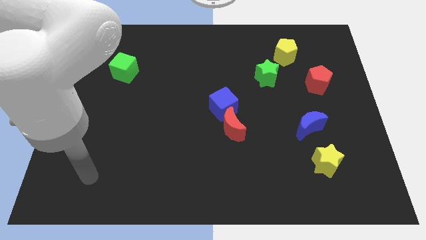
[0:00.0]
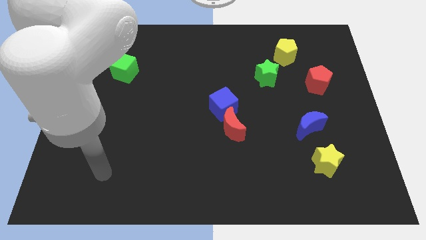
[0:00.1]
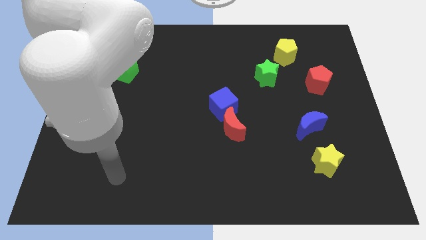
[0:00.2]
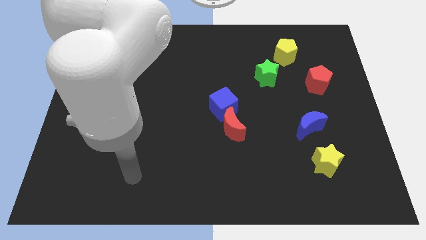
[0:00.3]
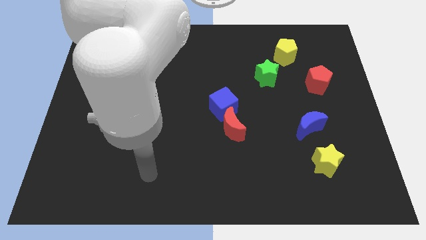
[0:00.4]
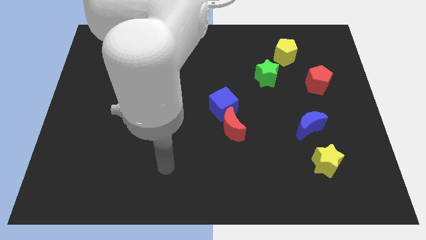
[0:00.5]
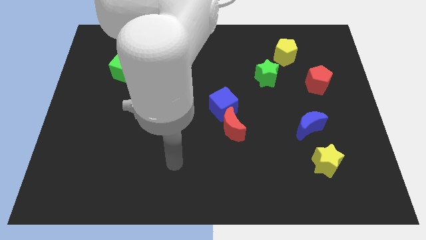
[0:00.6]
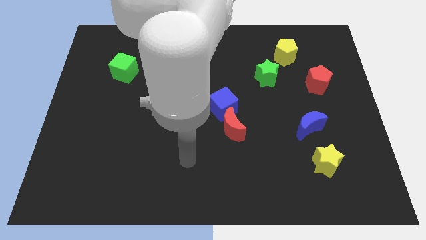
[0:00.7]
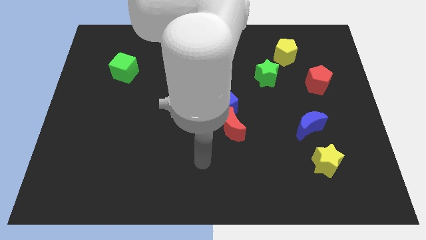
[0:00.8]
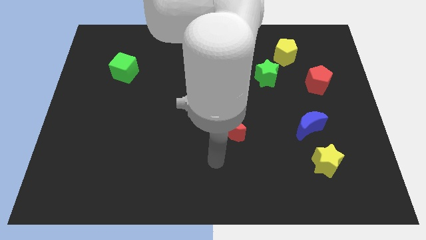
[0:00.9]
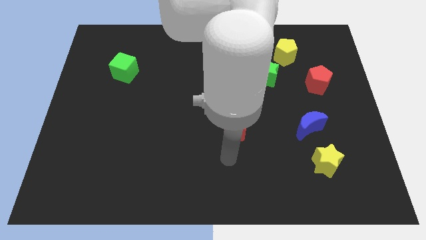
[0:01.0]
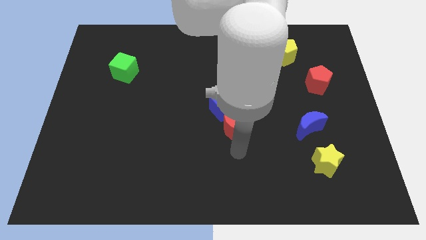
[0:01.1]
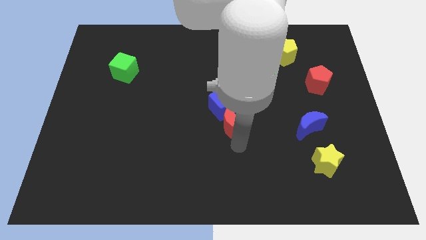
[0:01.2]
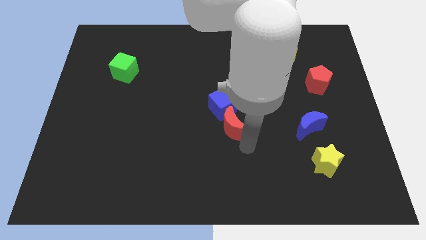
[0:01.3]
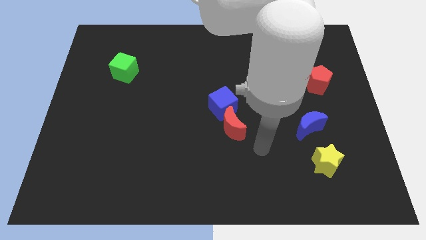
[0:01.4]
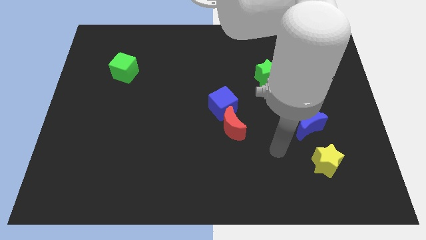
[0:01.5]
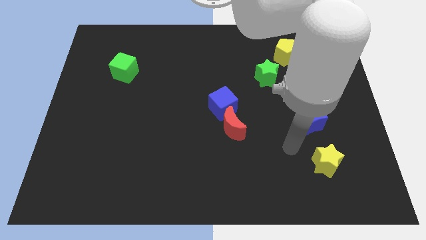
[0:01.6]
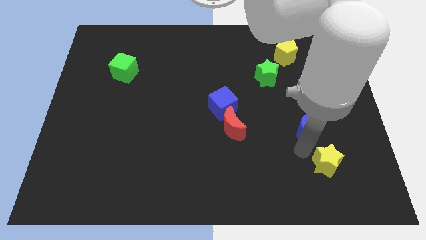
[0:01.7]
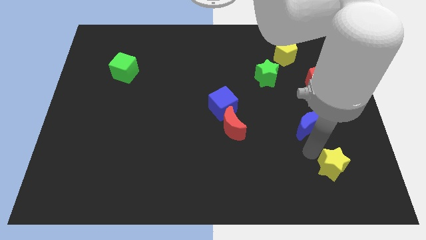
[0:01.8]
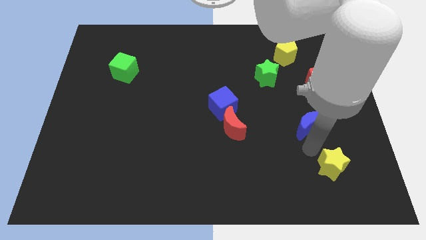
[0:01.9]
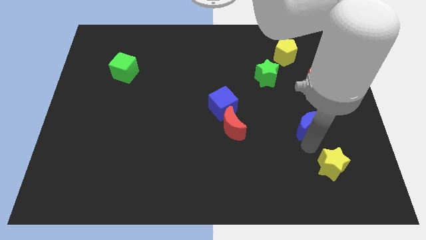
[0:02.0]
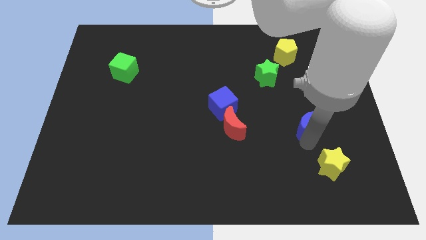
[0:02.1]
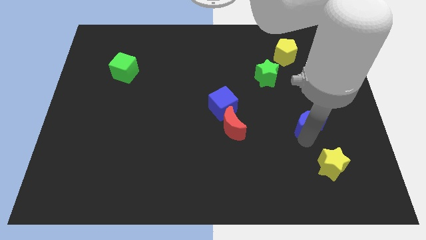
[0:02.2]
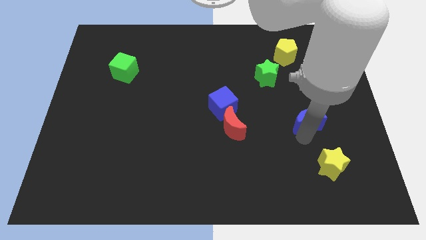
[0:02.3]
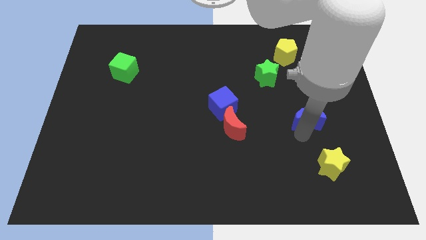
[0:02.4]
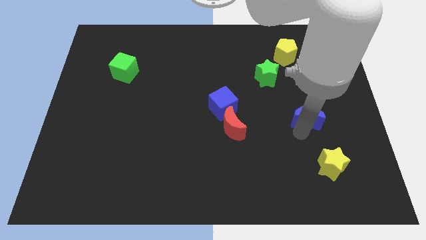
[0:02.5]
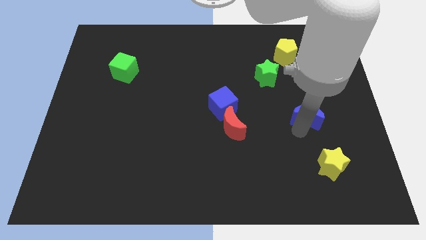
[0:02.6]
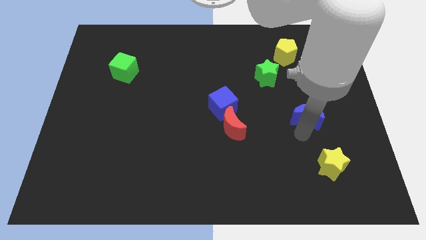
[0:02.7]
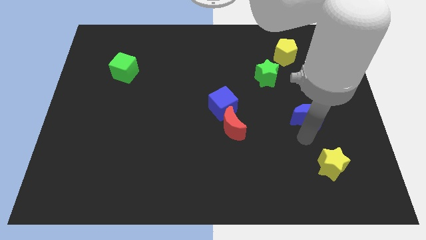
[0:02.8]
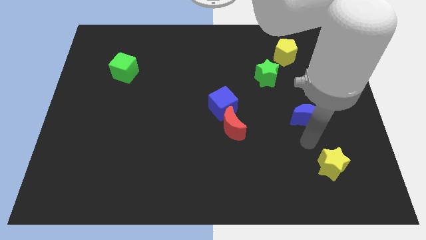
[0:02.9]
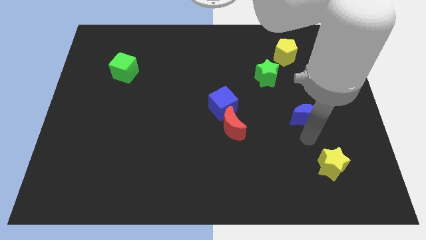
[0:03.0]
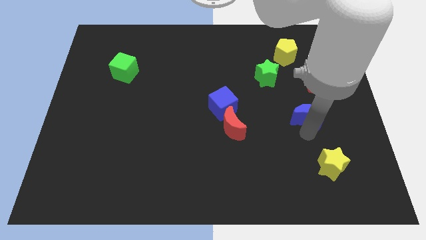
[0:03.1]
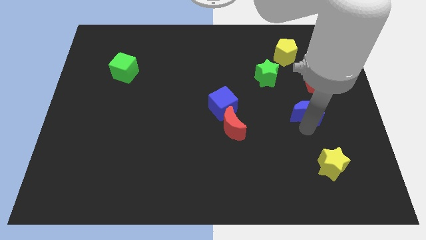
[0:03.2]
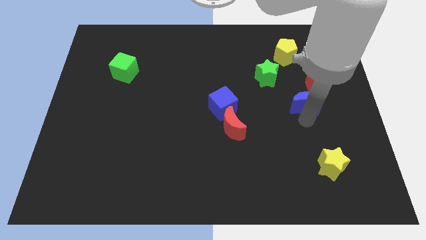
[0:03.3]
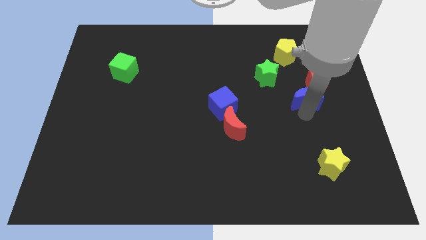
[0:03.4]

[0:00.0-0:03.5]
slide the blue moon somewhat upwards

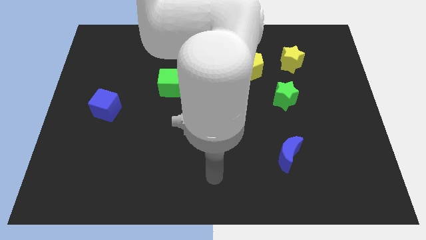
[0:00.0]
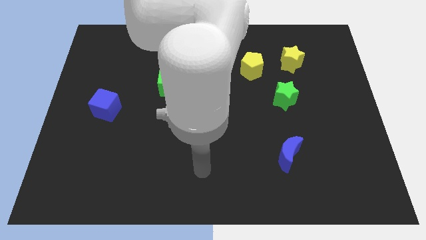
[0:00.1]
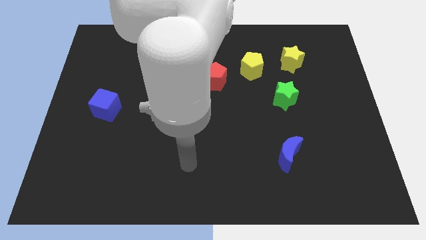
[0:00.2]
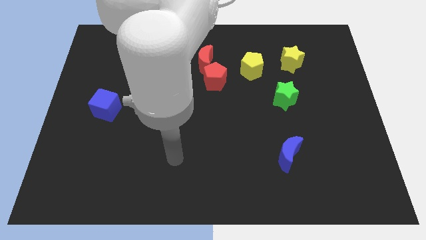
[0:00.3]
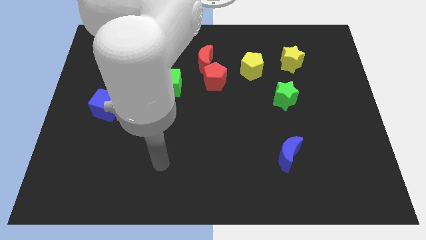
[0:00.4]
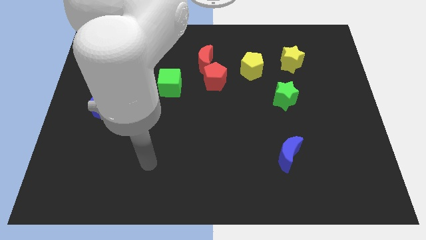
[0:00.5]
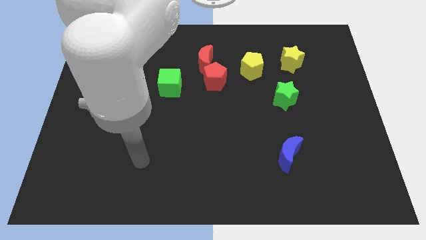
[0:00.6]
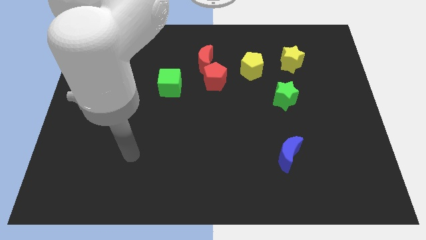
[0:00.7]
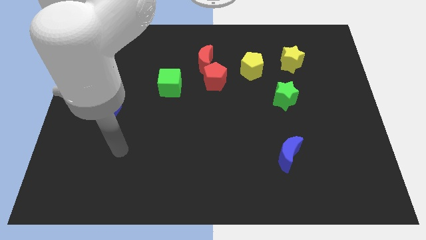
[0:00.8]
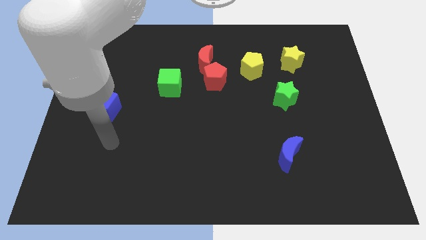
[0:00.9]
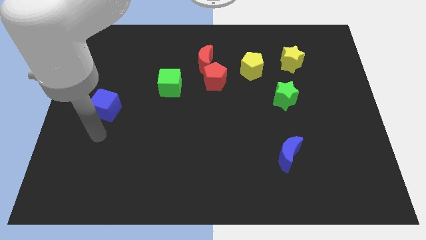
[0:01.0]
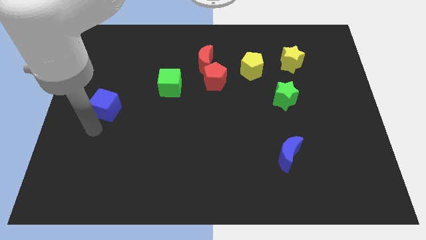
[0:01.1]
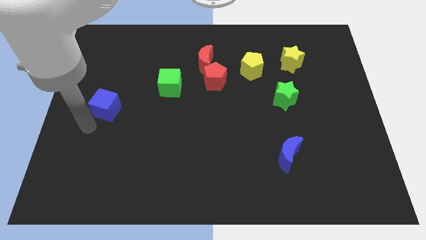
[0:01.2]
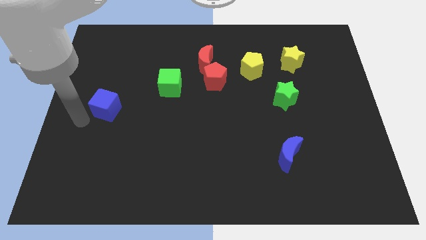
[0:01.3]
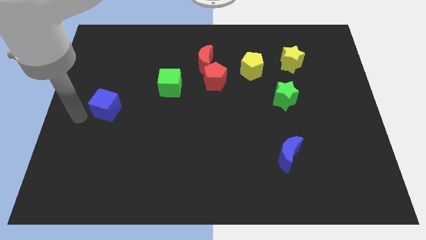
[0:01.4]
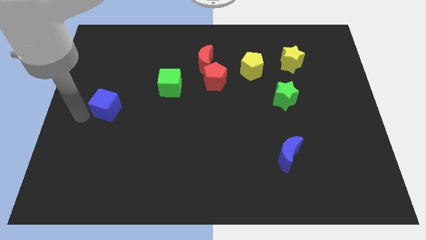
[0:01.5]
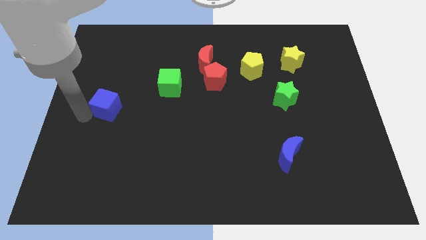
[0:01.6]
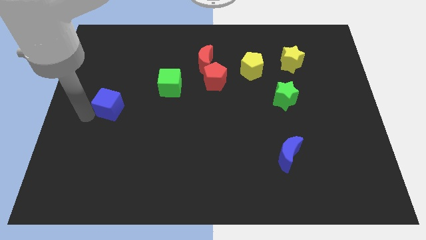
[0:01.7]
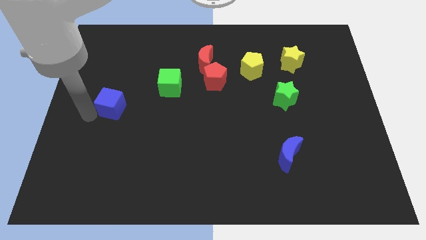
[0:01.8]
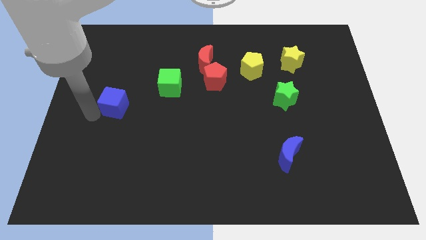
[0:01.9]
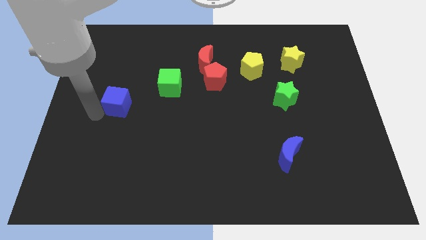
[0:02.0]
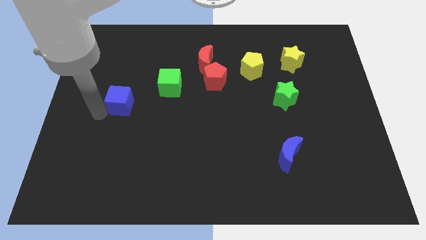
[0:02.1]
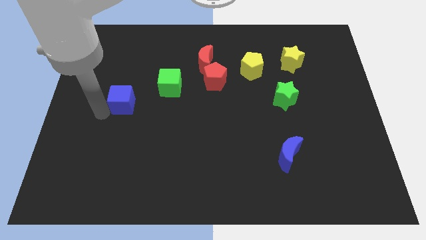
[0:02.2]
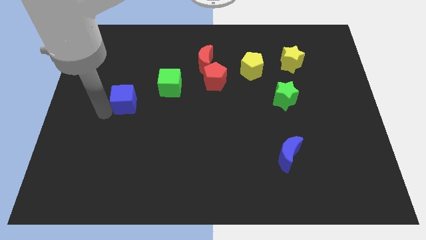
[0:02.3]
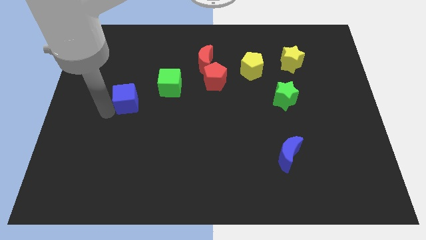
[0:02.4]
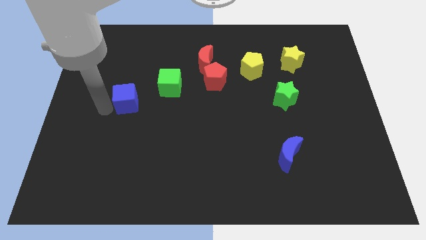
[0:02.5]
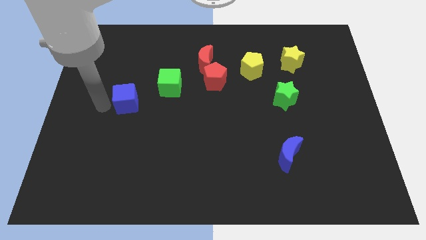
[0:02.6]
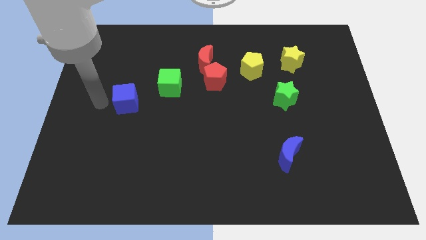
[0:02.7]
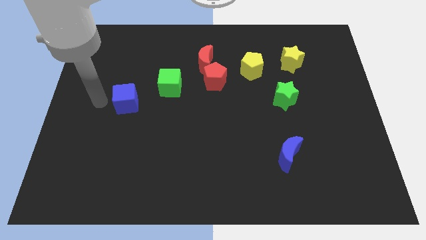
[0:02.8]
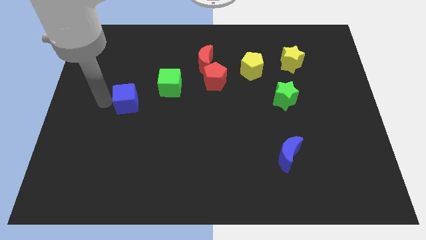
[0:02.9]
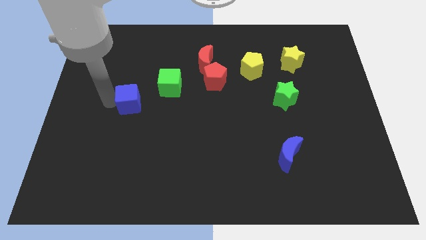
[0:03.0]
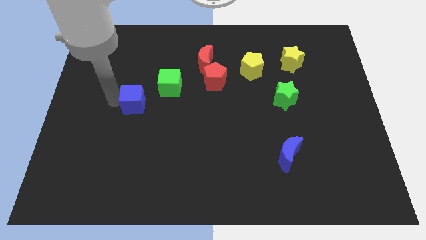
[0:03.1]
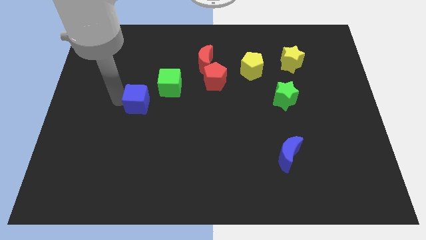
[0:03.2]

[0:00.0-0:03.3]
slide the blue cube slightly to the right

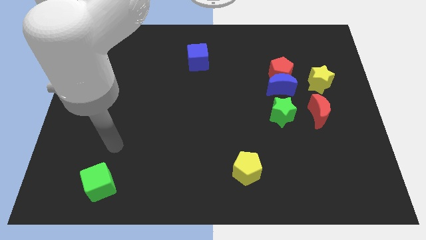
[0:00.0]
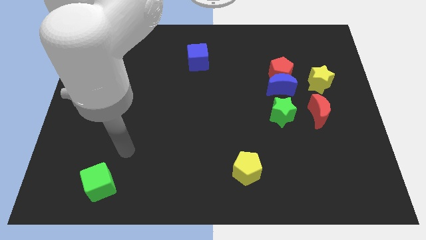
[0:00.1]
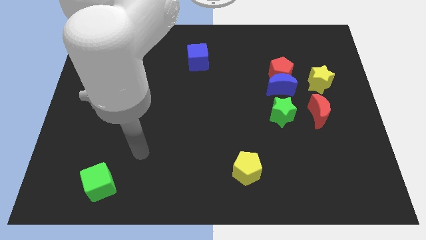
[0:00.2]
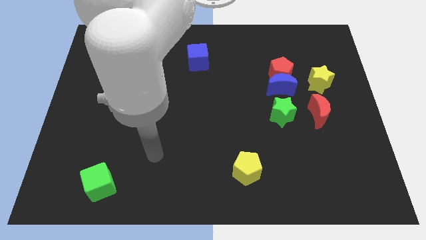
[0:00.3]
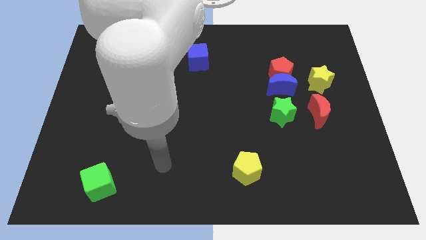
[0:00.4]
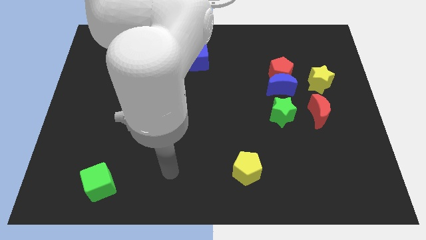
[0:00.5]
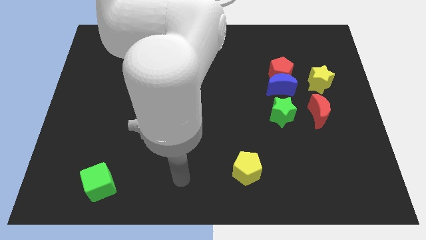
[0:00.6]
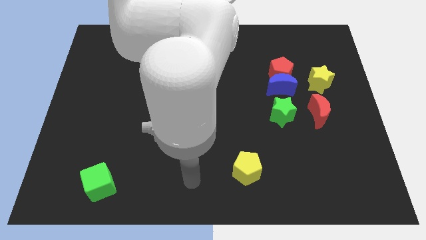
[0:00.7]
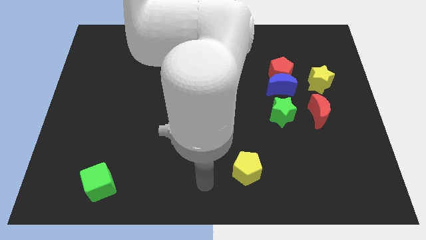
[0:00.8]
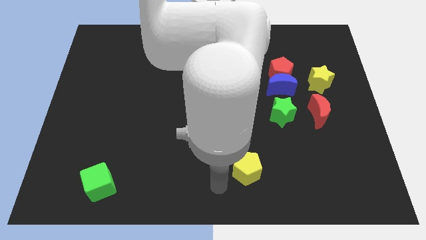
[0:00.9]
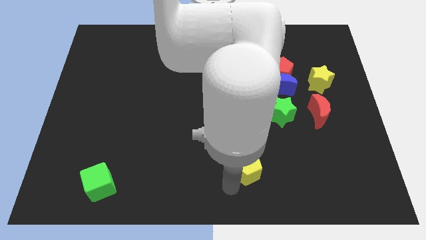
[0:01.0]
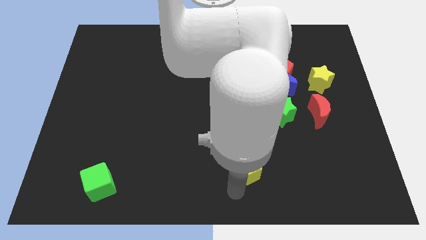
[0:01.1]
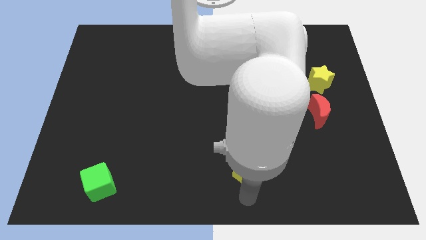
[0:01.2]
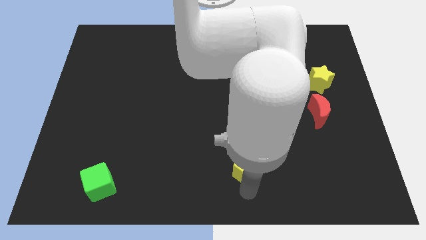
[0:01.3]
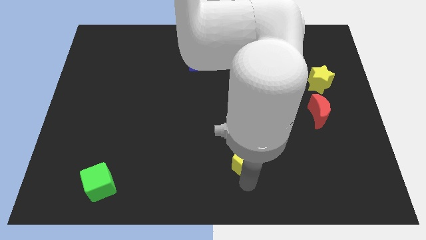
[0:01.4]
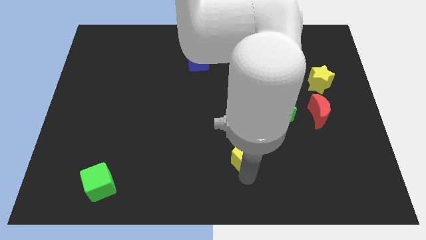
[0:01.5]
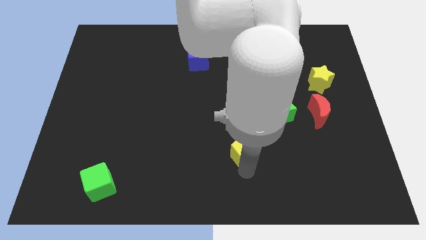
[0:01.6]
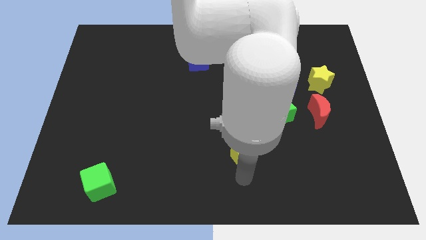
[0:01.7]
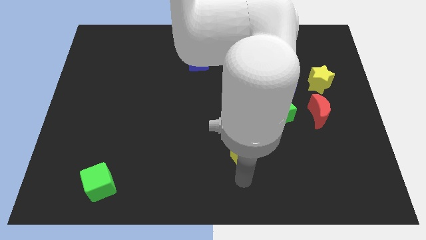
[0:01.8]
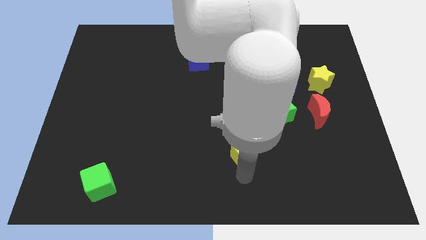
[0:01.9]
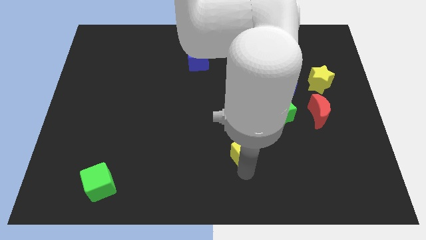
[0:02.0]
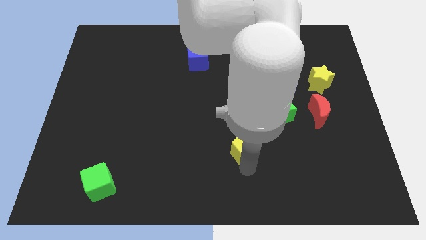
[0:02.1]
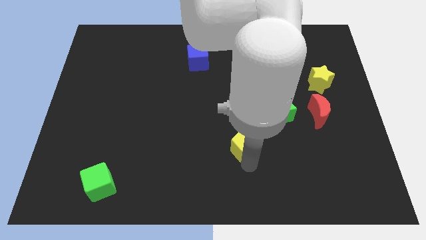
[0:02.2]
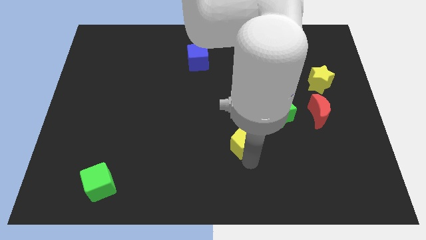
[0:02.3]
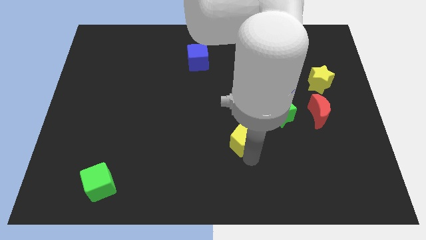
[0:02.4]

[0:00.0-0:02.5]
move the yellow pentagon a little upwards
